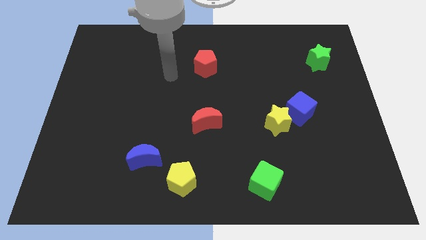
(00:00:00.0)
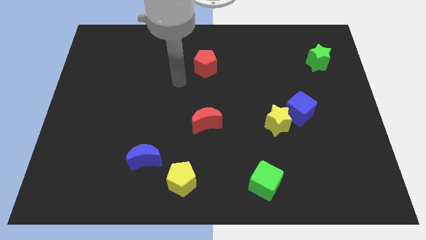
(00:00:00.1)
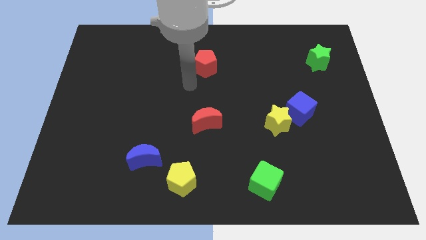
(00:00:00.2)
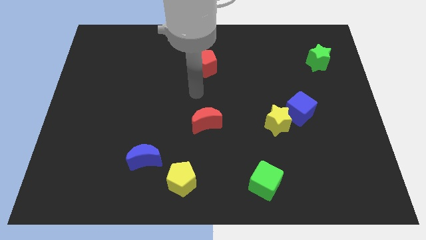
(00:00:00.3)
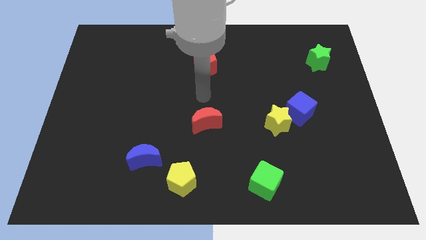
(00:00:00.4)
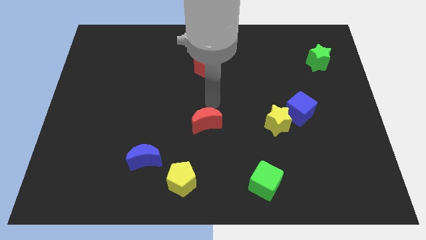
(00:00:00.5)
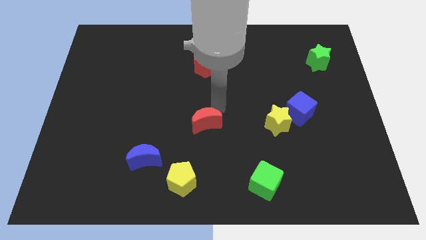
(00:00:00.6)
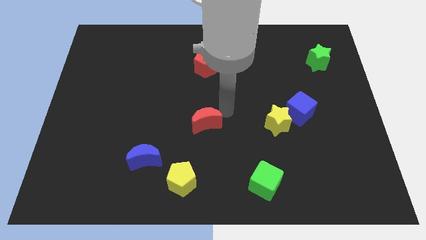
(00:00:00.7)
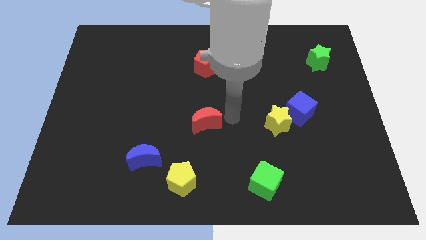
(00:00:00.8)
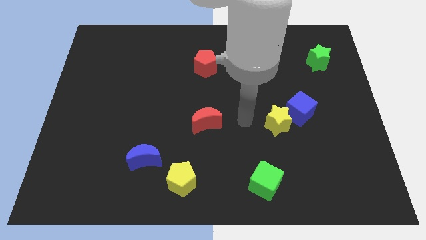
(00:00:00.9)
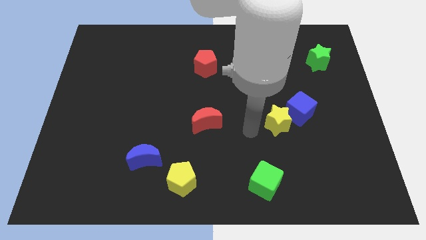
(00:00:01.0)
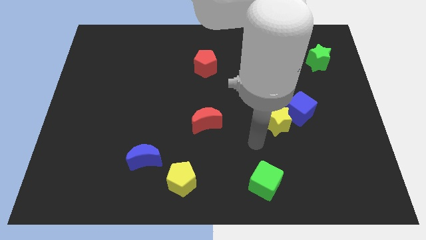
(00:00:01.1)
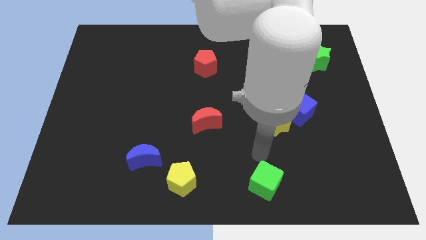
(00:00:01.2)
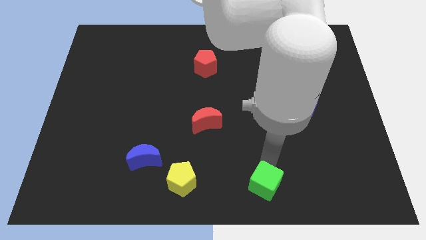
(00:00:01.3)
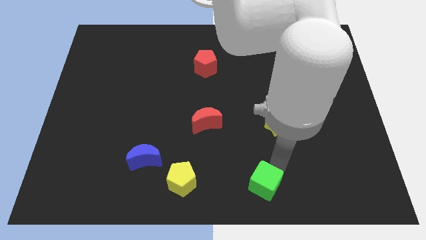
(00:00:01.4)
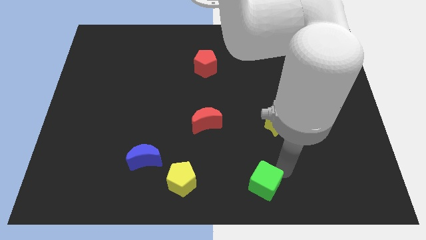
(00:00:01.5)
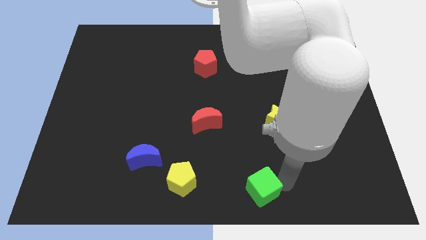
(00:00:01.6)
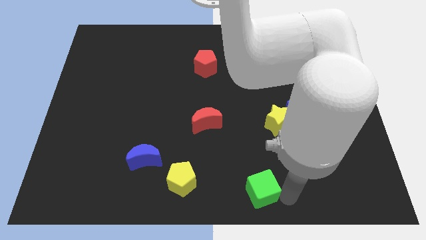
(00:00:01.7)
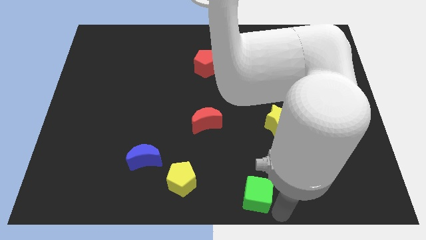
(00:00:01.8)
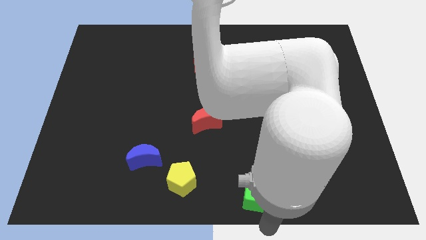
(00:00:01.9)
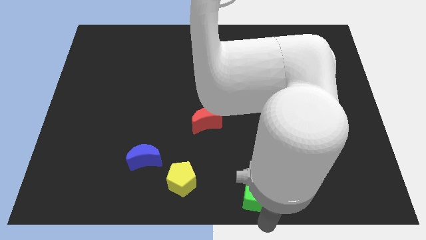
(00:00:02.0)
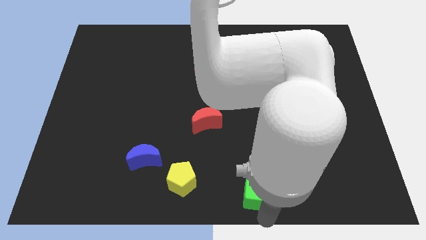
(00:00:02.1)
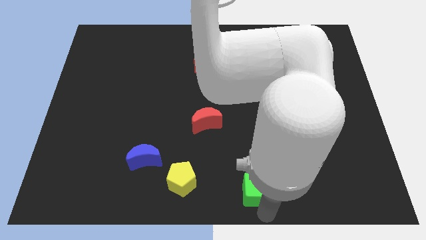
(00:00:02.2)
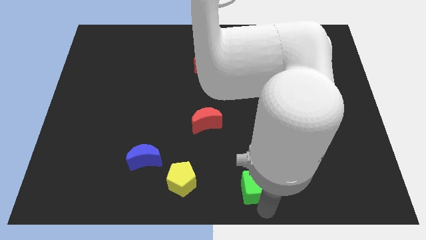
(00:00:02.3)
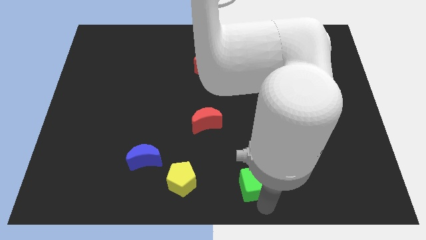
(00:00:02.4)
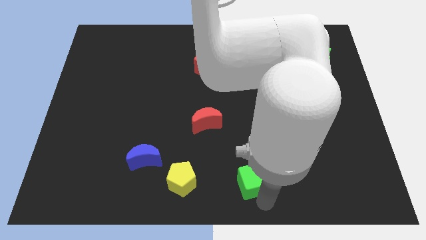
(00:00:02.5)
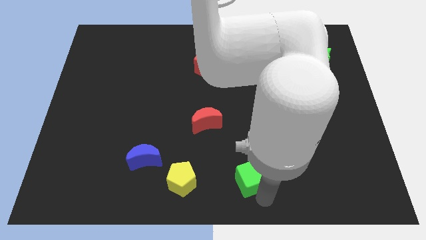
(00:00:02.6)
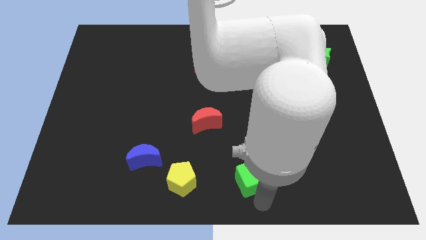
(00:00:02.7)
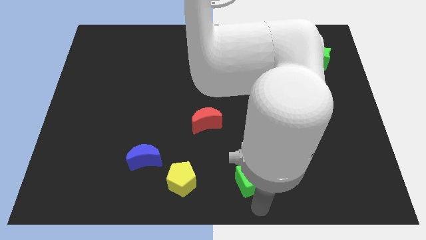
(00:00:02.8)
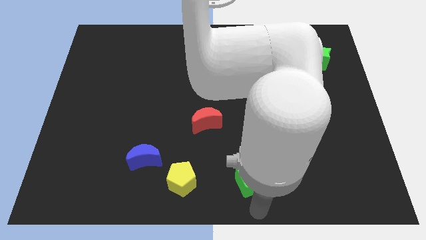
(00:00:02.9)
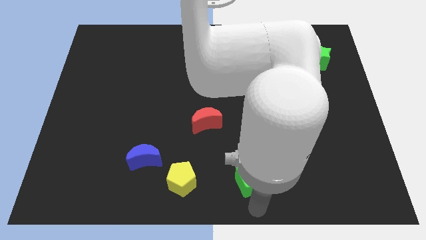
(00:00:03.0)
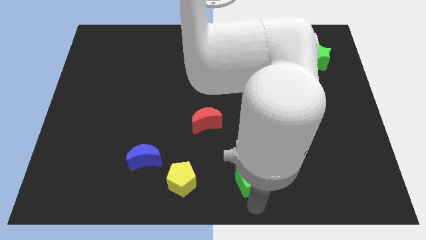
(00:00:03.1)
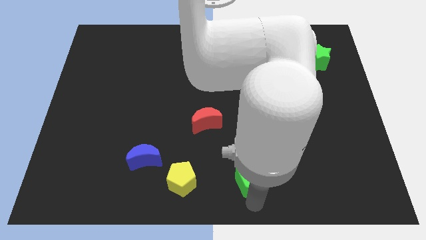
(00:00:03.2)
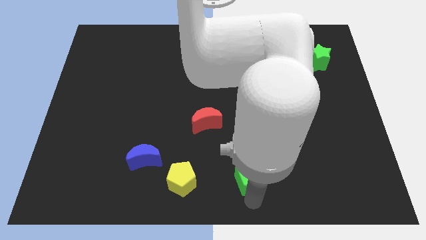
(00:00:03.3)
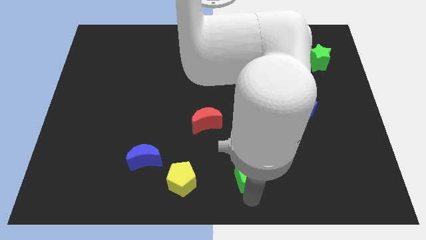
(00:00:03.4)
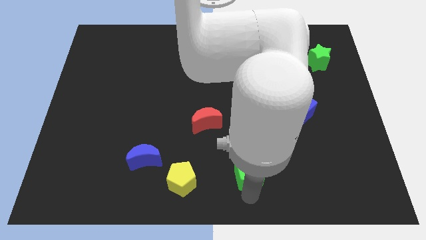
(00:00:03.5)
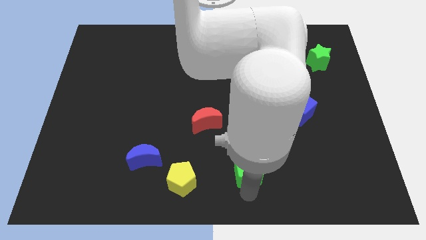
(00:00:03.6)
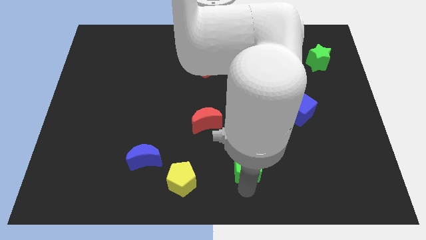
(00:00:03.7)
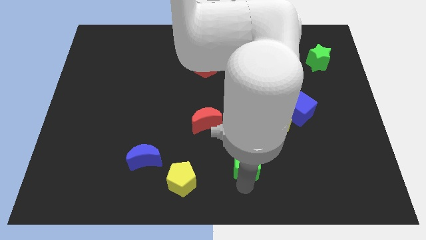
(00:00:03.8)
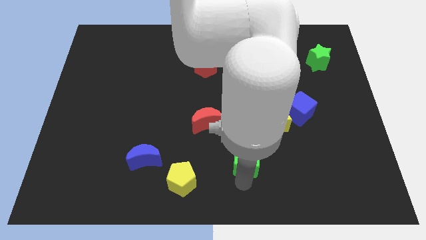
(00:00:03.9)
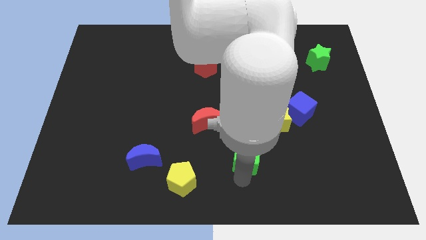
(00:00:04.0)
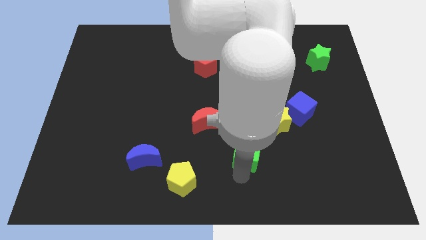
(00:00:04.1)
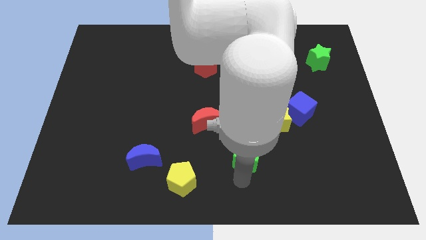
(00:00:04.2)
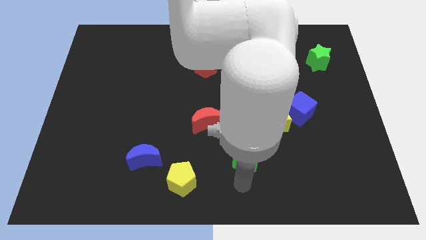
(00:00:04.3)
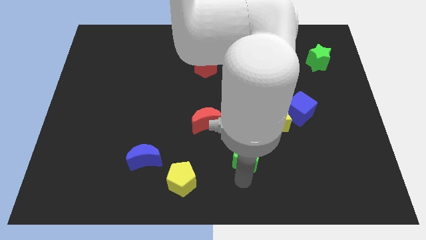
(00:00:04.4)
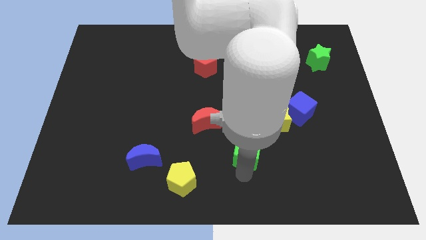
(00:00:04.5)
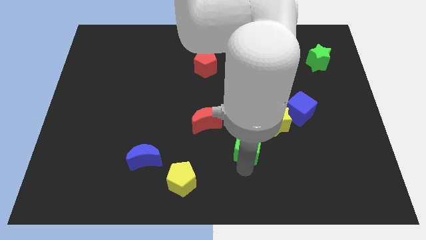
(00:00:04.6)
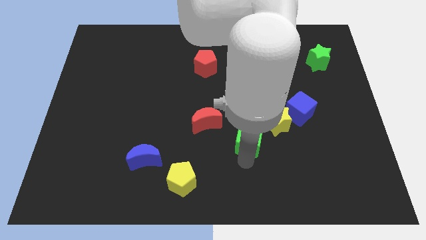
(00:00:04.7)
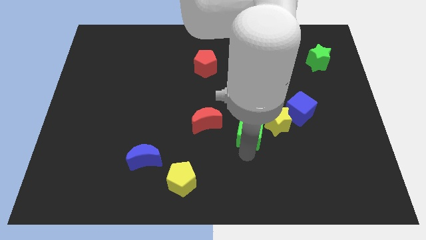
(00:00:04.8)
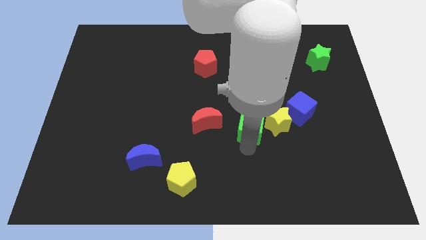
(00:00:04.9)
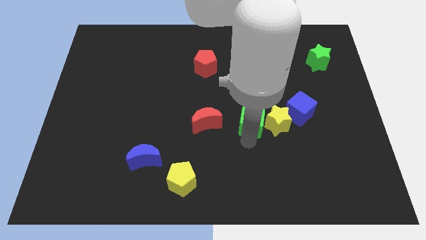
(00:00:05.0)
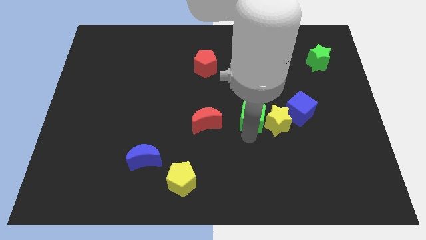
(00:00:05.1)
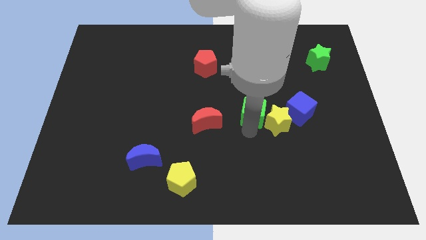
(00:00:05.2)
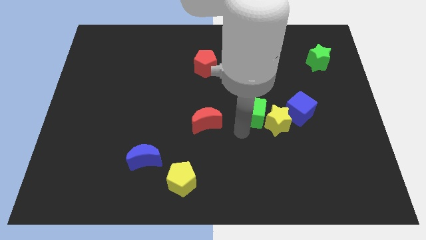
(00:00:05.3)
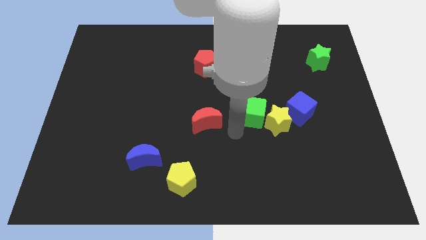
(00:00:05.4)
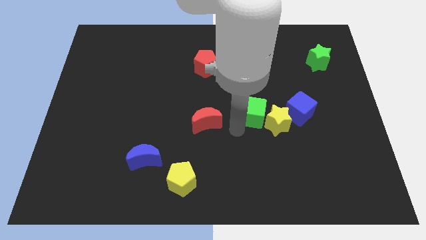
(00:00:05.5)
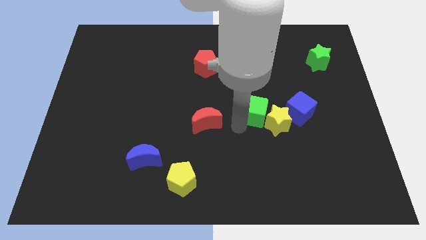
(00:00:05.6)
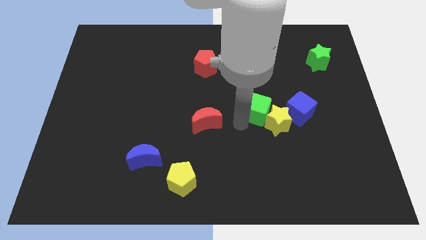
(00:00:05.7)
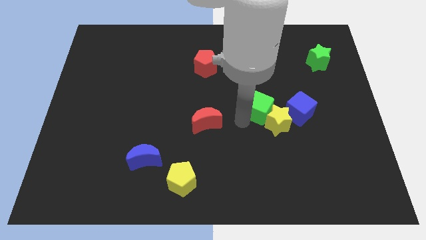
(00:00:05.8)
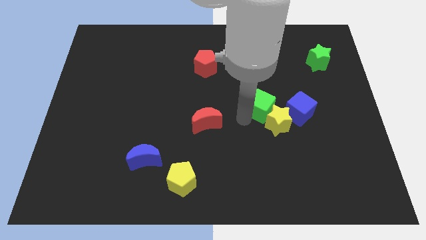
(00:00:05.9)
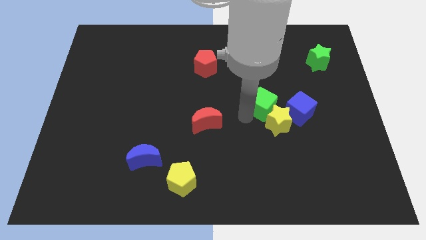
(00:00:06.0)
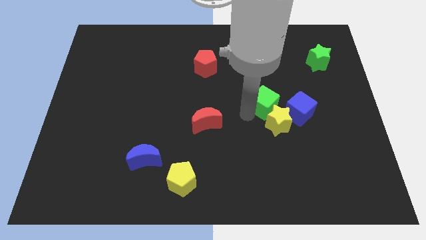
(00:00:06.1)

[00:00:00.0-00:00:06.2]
move the green cube diagonally up and to the left of the blue cube
